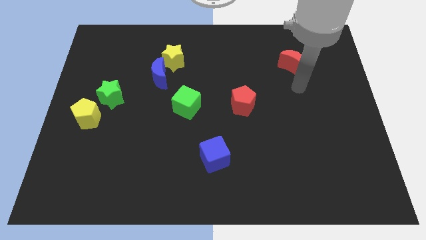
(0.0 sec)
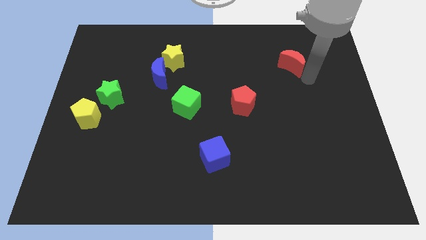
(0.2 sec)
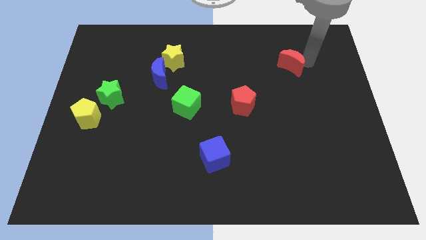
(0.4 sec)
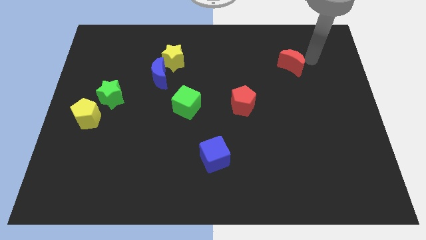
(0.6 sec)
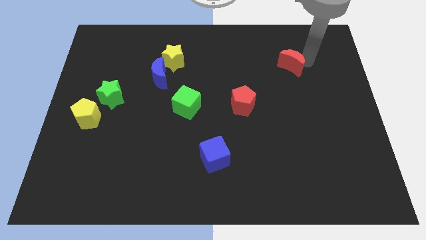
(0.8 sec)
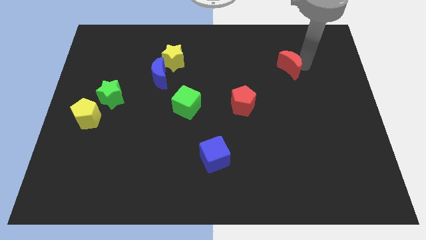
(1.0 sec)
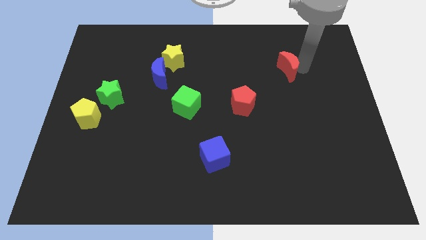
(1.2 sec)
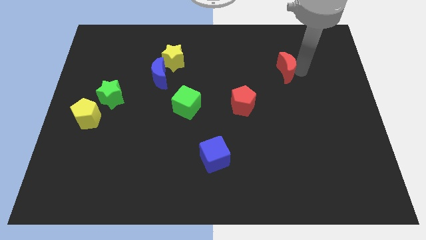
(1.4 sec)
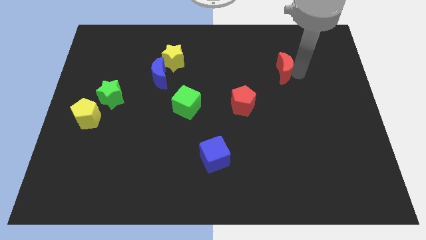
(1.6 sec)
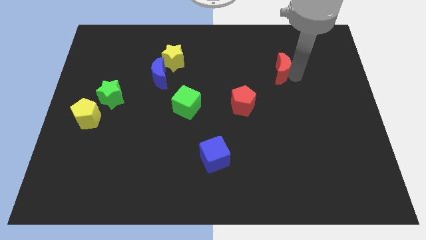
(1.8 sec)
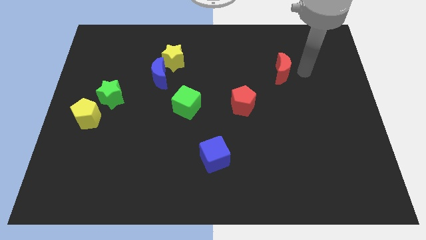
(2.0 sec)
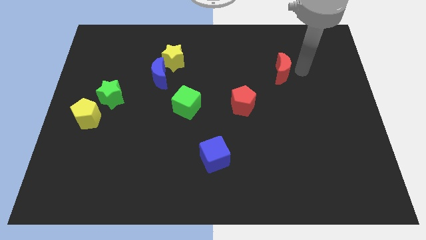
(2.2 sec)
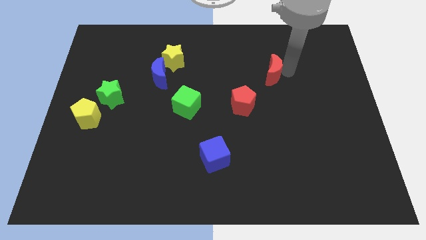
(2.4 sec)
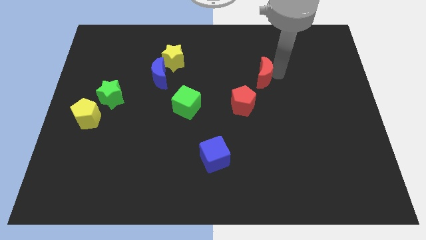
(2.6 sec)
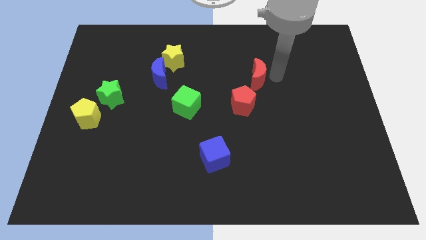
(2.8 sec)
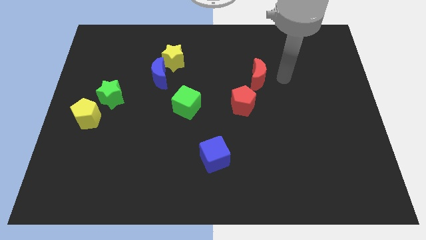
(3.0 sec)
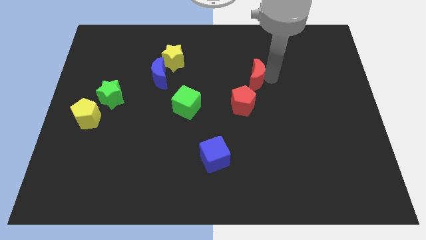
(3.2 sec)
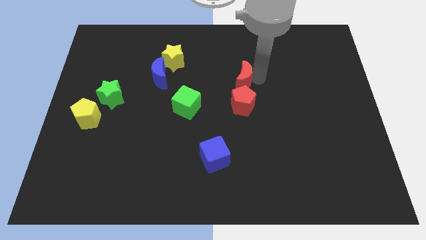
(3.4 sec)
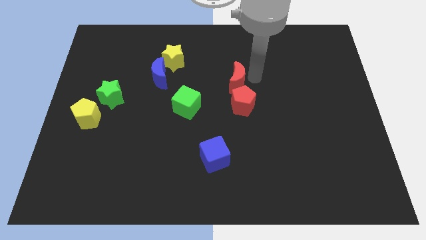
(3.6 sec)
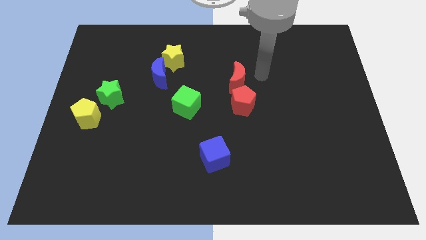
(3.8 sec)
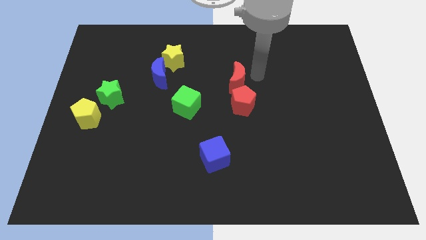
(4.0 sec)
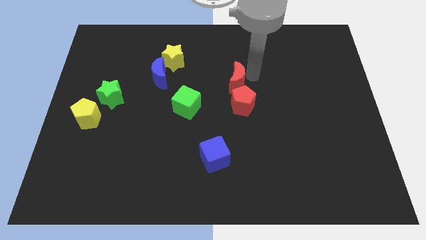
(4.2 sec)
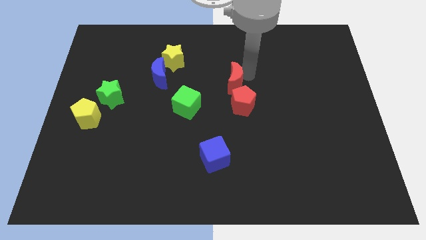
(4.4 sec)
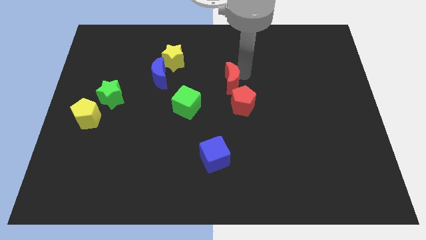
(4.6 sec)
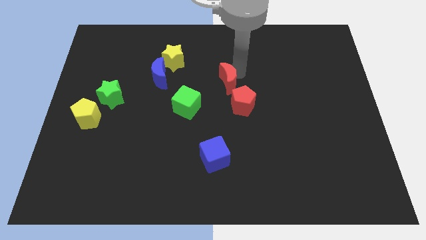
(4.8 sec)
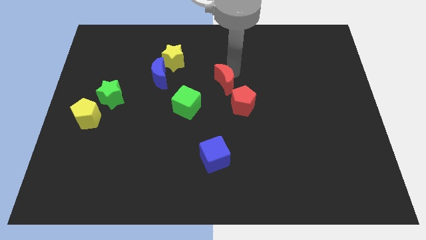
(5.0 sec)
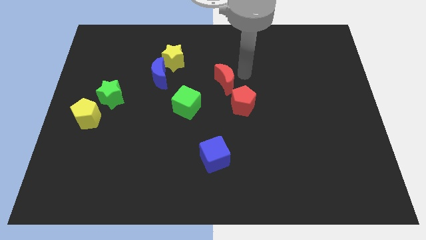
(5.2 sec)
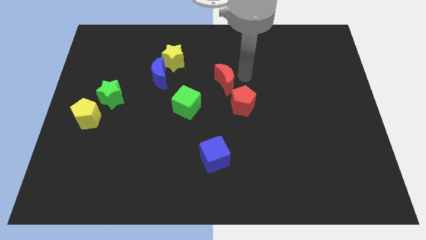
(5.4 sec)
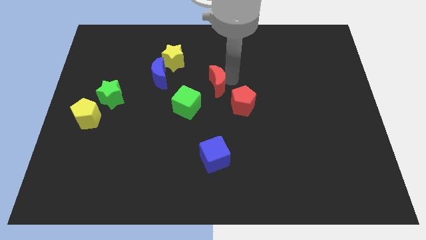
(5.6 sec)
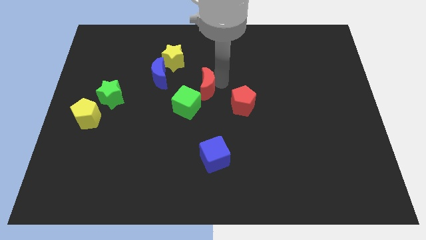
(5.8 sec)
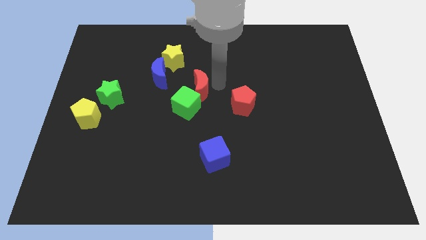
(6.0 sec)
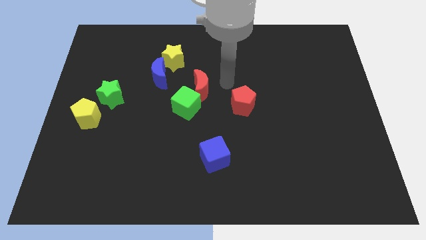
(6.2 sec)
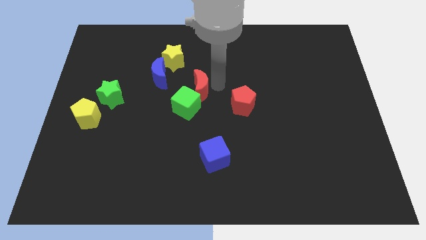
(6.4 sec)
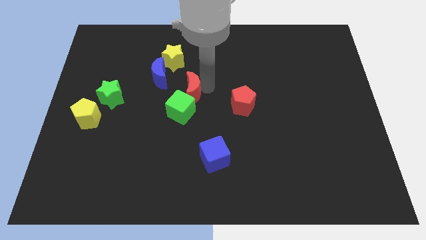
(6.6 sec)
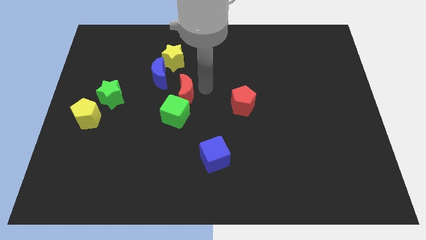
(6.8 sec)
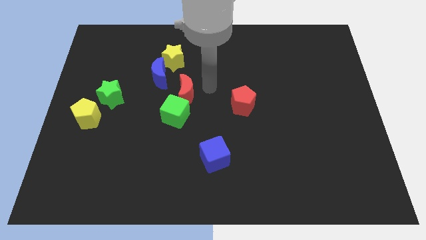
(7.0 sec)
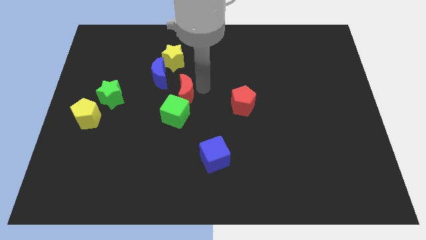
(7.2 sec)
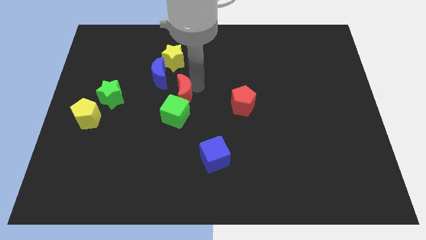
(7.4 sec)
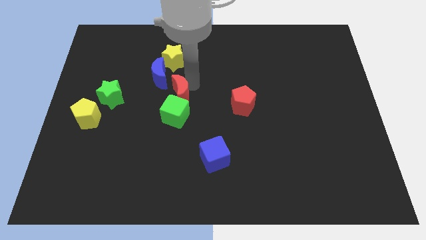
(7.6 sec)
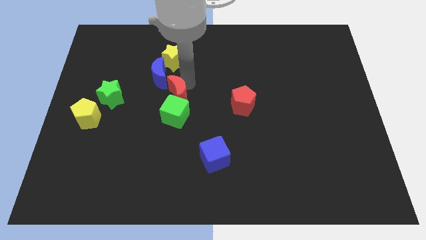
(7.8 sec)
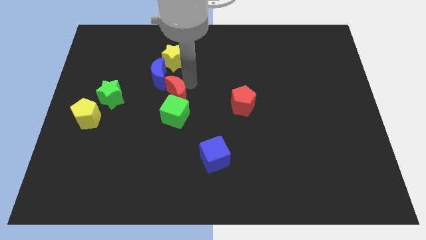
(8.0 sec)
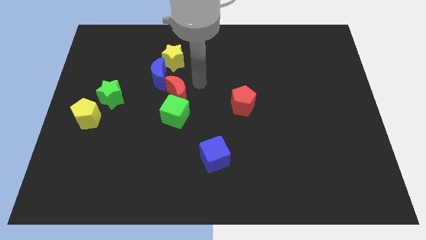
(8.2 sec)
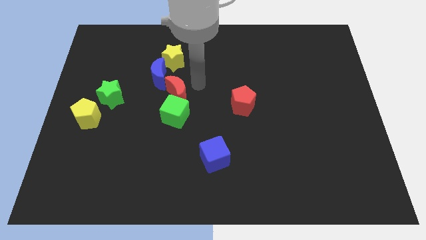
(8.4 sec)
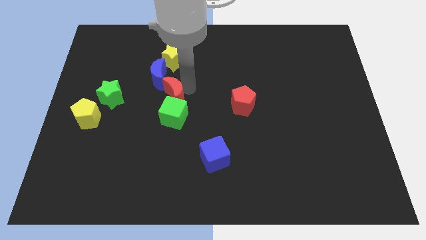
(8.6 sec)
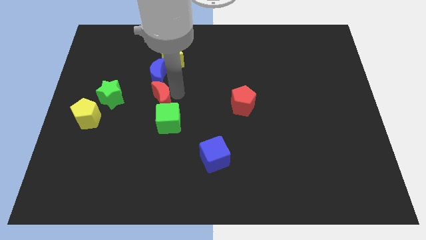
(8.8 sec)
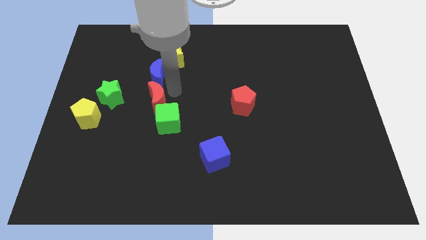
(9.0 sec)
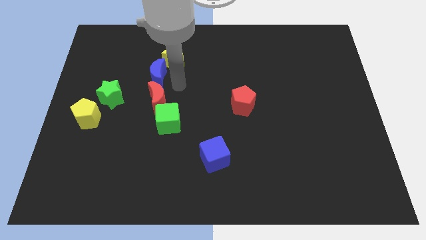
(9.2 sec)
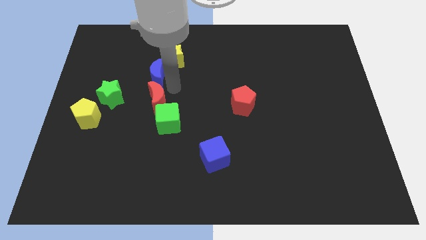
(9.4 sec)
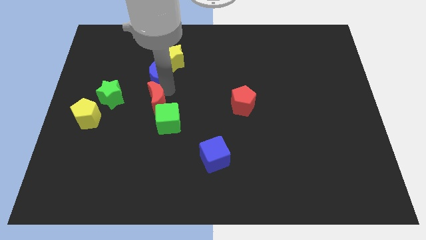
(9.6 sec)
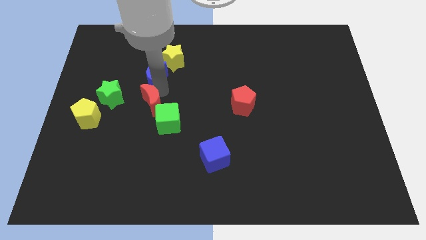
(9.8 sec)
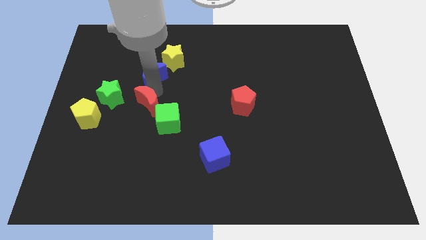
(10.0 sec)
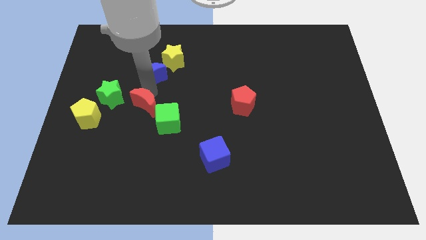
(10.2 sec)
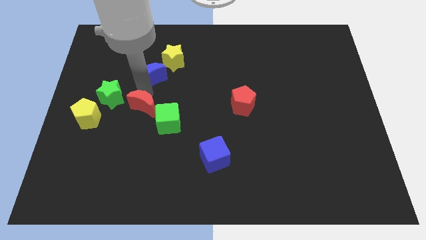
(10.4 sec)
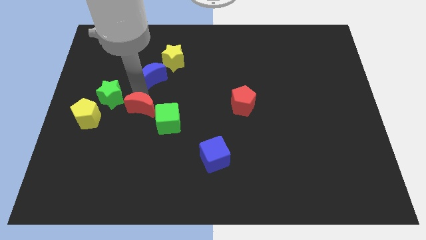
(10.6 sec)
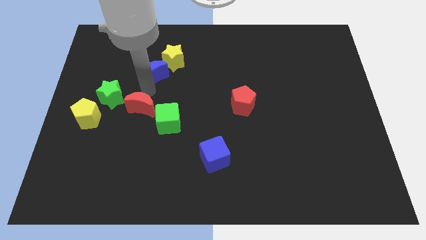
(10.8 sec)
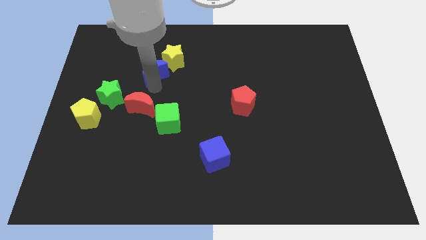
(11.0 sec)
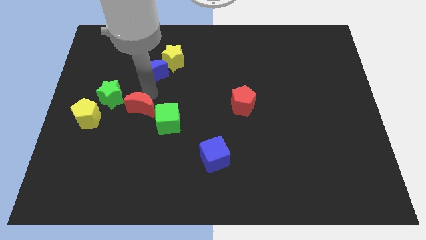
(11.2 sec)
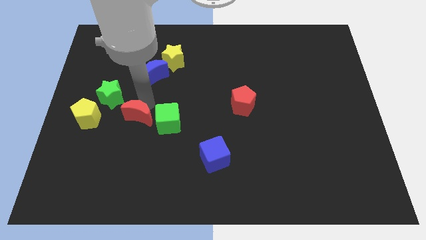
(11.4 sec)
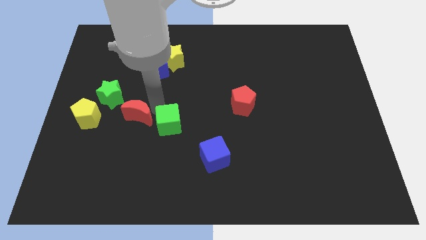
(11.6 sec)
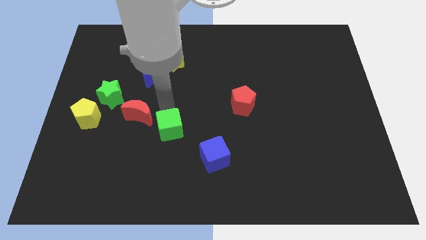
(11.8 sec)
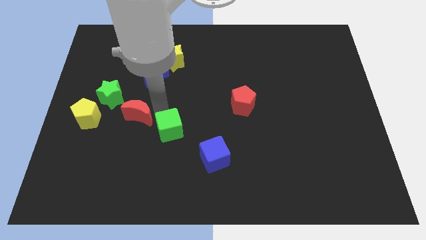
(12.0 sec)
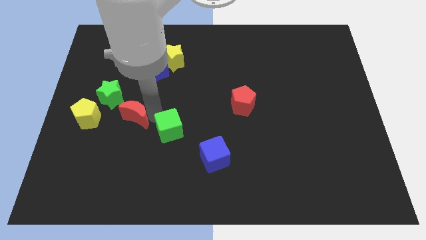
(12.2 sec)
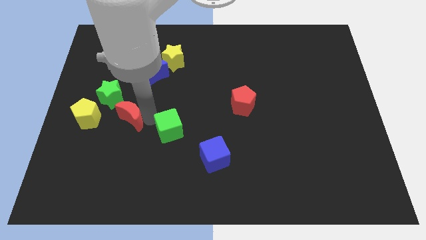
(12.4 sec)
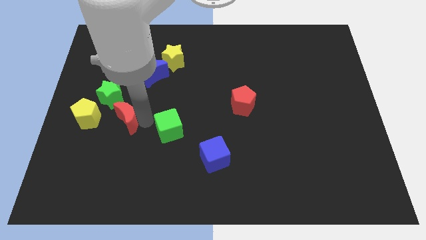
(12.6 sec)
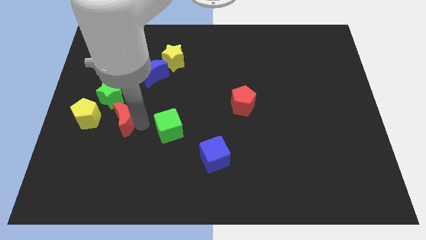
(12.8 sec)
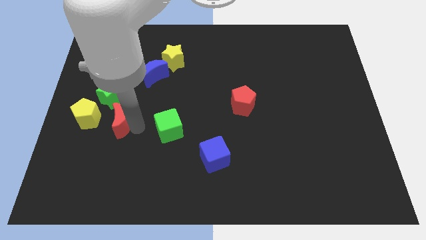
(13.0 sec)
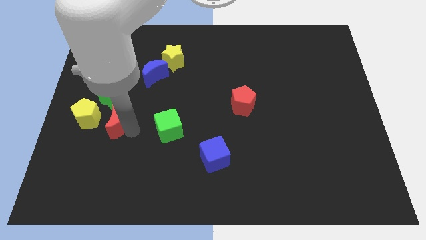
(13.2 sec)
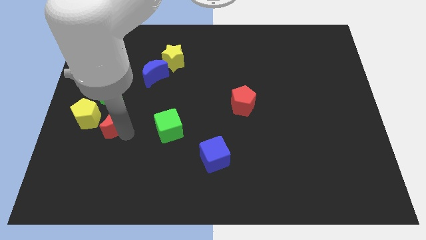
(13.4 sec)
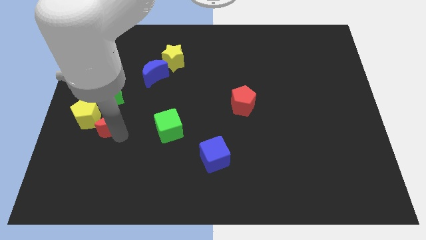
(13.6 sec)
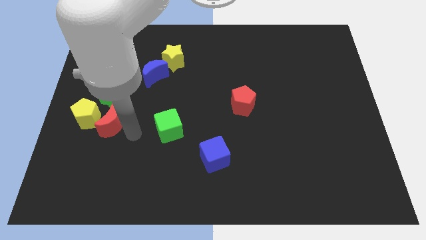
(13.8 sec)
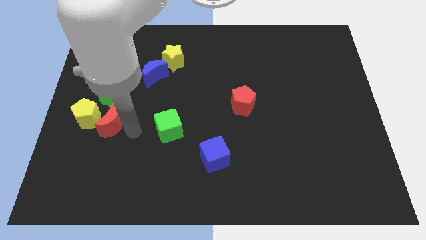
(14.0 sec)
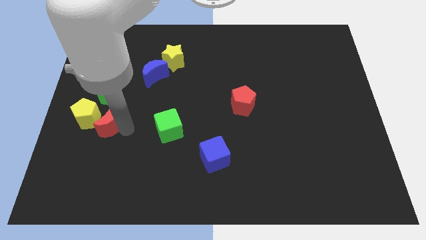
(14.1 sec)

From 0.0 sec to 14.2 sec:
put the red moon to the yellow pentagon
